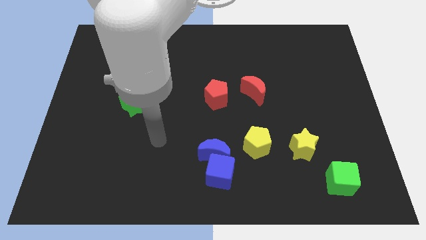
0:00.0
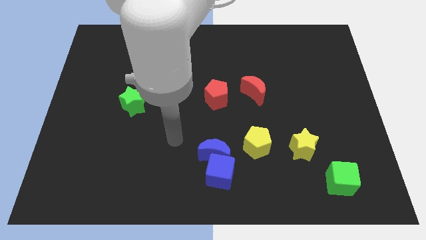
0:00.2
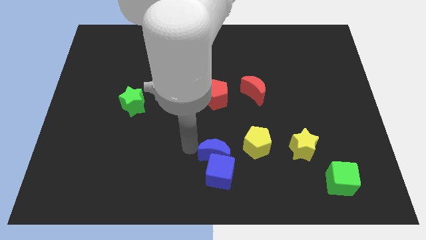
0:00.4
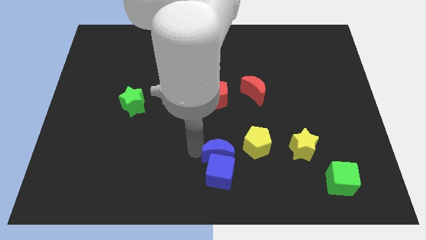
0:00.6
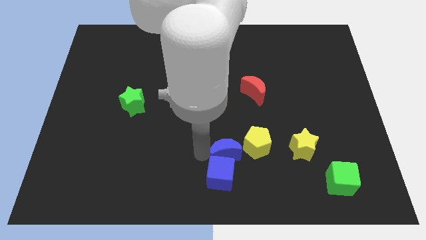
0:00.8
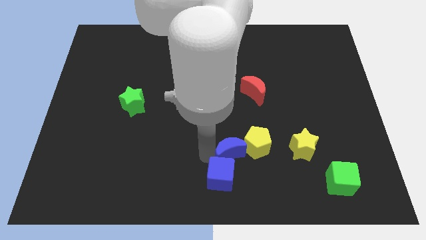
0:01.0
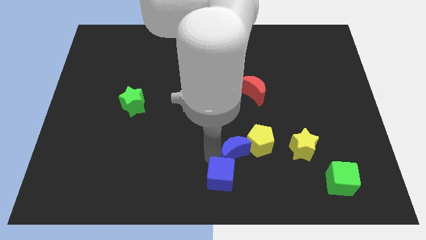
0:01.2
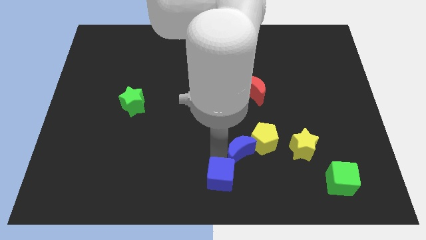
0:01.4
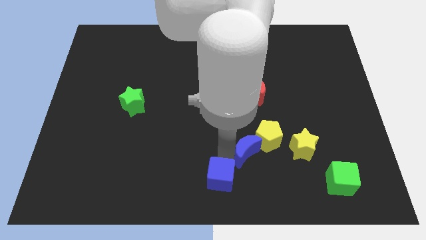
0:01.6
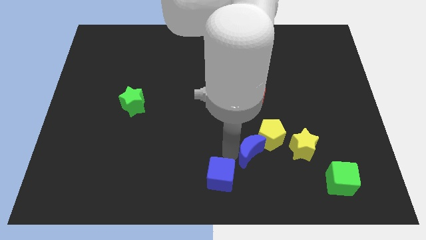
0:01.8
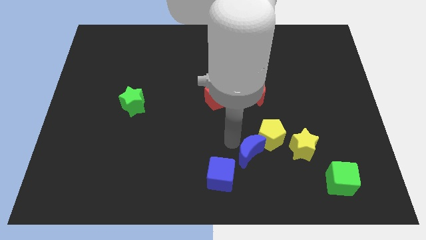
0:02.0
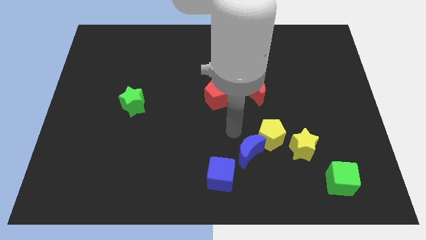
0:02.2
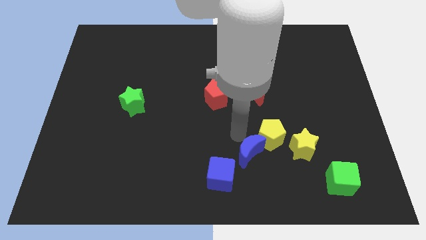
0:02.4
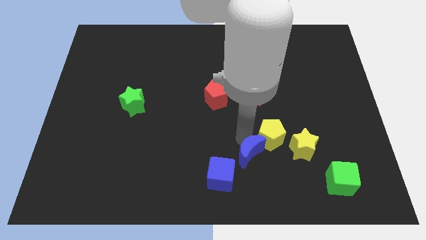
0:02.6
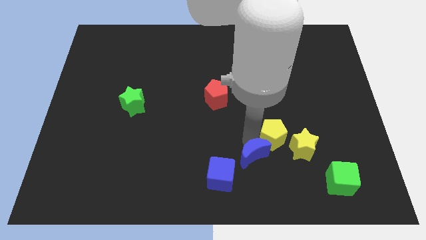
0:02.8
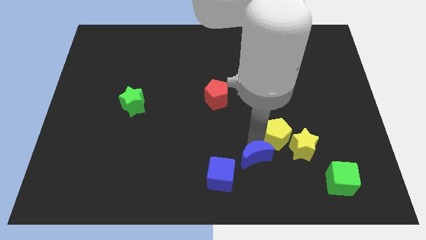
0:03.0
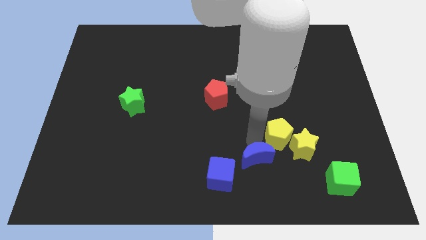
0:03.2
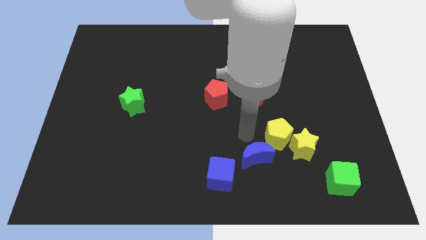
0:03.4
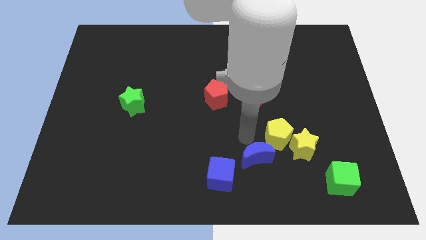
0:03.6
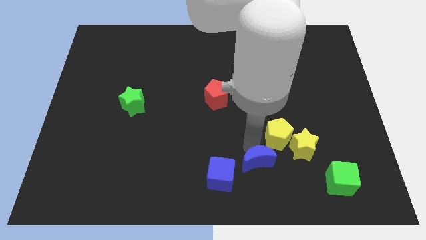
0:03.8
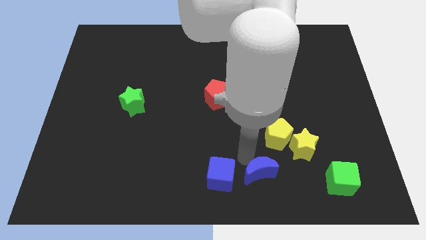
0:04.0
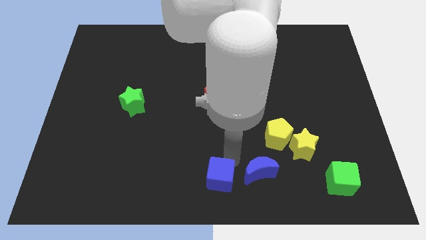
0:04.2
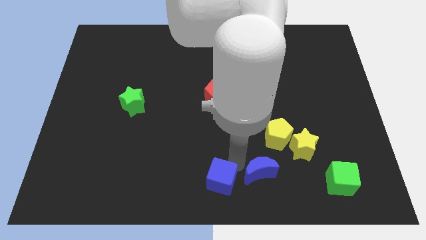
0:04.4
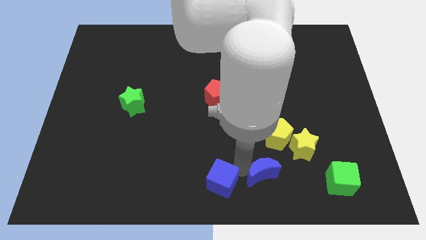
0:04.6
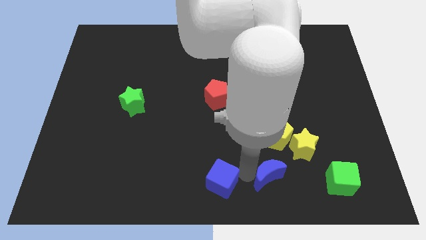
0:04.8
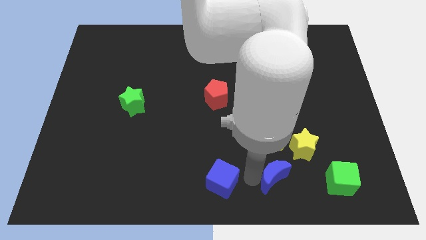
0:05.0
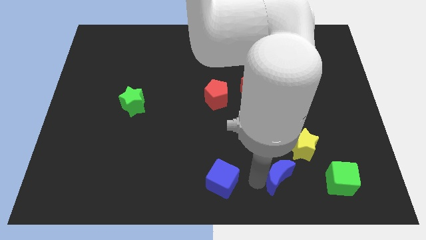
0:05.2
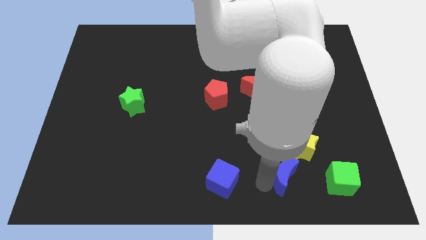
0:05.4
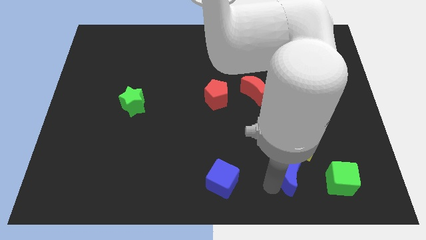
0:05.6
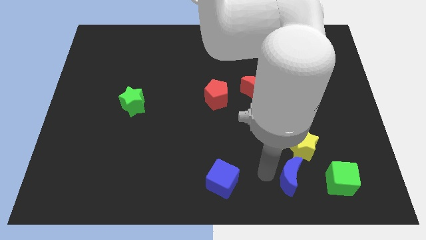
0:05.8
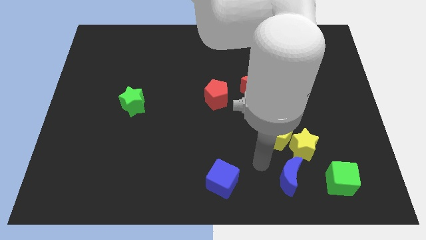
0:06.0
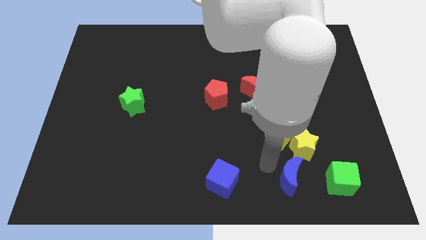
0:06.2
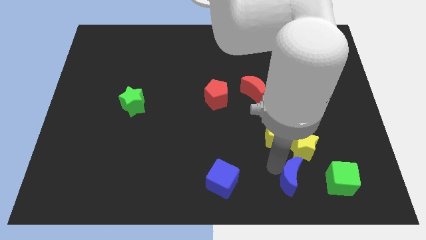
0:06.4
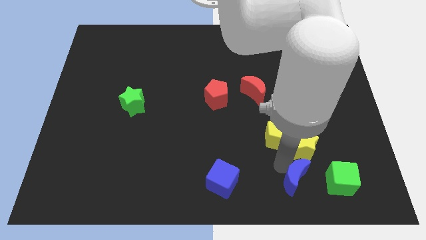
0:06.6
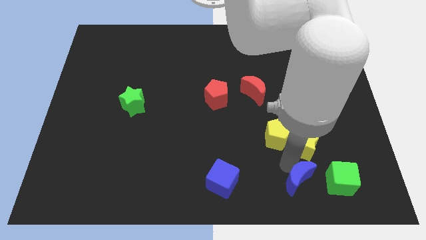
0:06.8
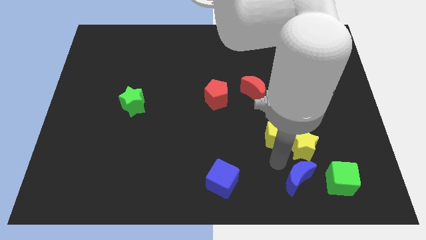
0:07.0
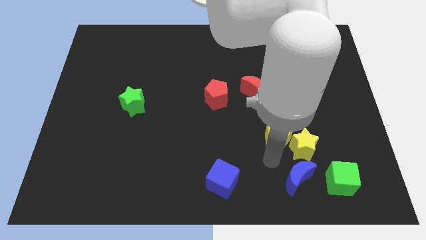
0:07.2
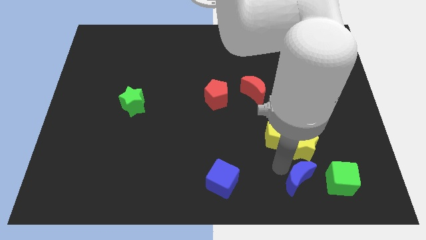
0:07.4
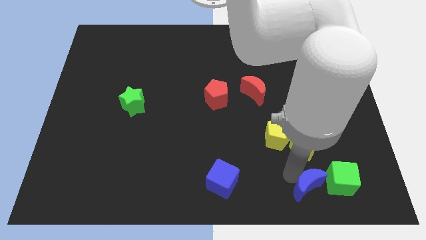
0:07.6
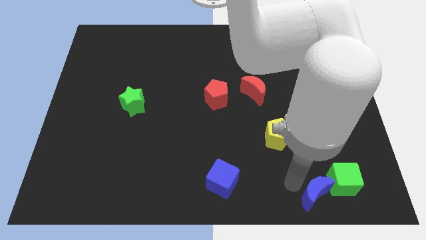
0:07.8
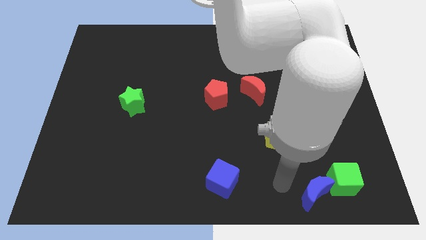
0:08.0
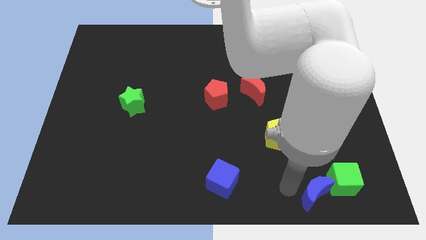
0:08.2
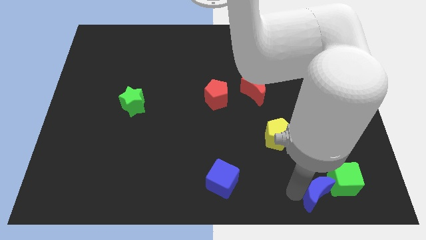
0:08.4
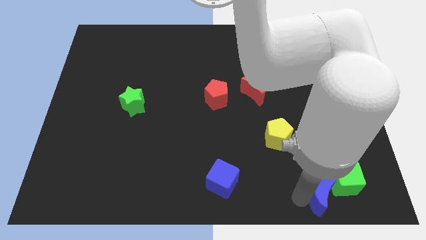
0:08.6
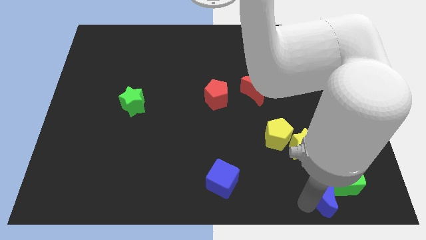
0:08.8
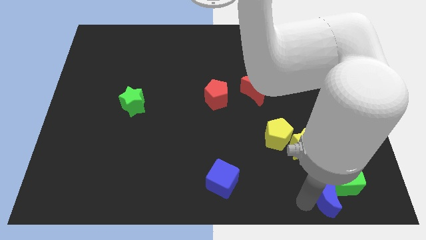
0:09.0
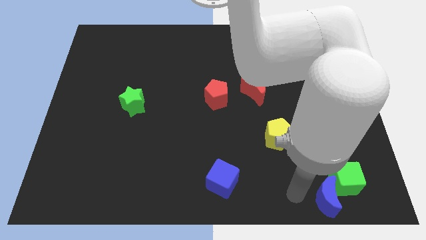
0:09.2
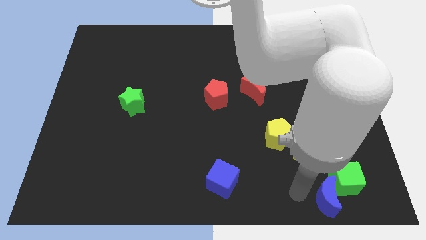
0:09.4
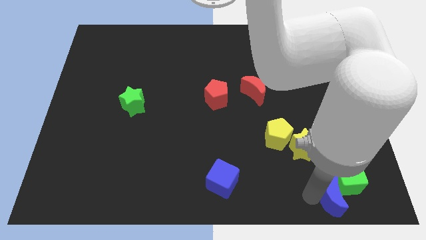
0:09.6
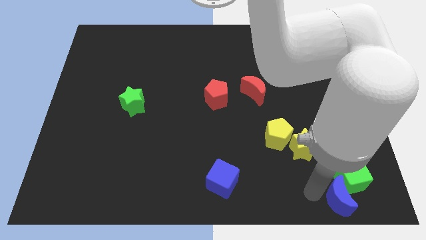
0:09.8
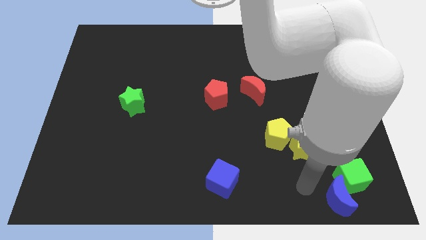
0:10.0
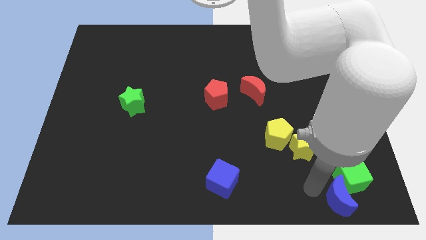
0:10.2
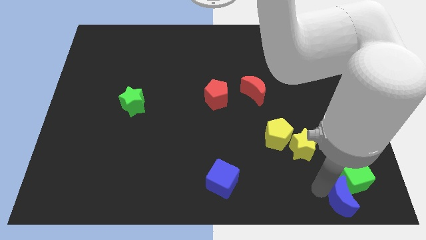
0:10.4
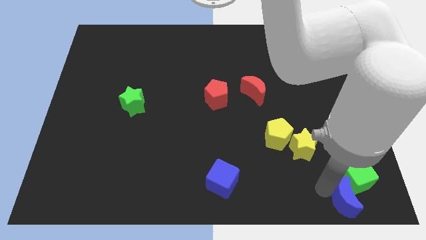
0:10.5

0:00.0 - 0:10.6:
push the blue moon to the bottom right corner

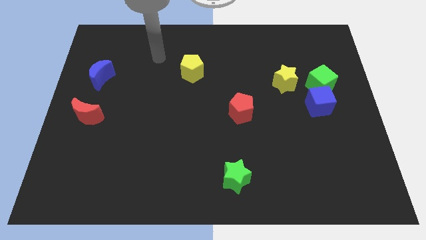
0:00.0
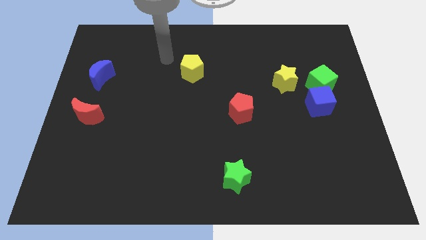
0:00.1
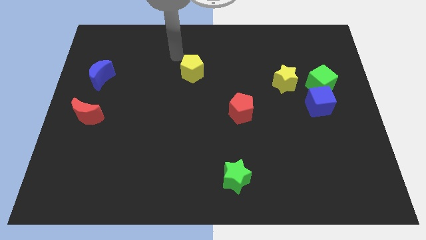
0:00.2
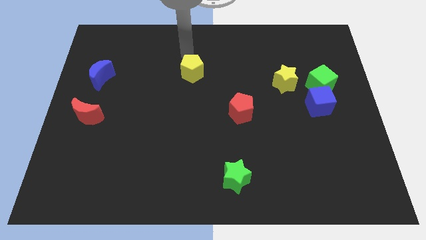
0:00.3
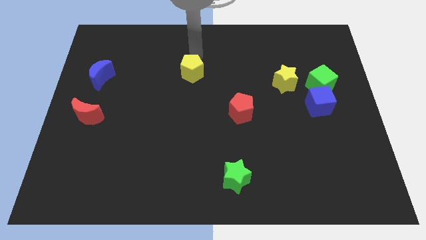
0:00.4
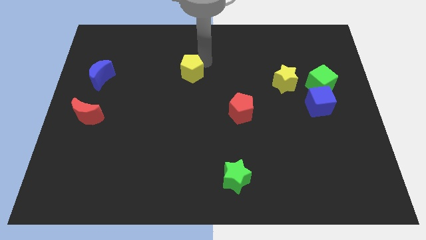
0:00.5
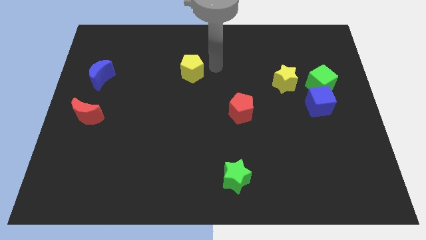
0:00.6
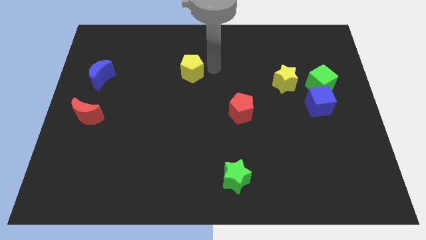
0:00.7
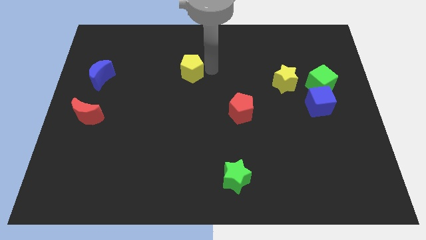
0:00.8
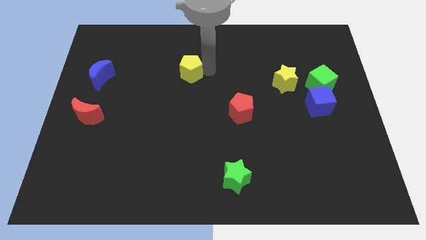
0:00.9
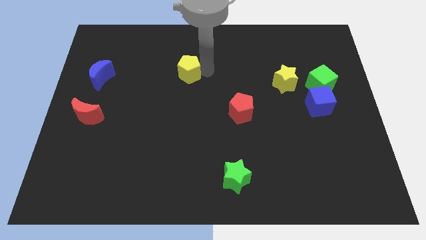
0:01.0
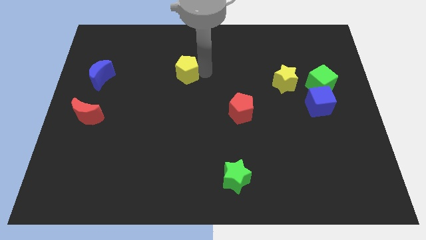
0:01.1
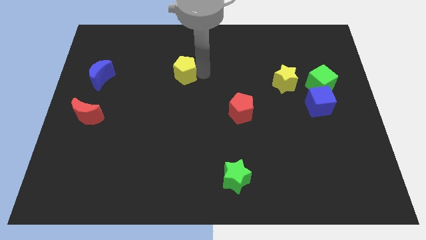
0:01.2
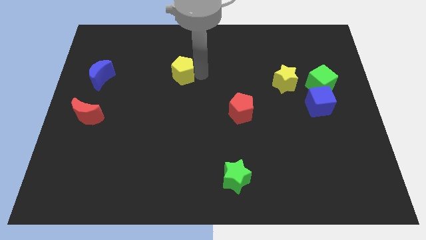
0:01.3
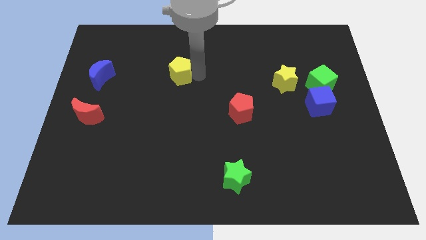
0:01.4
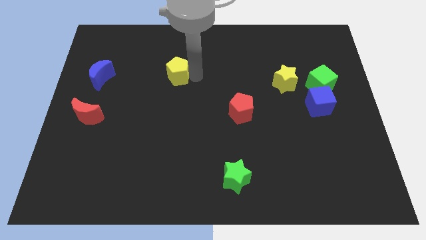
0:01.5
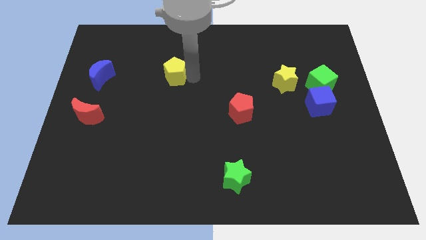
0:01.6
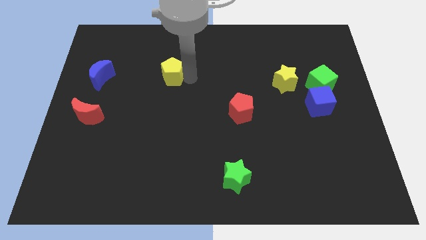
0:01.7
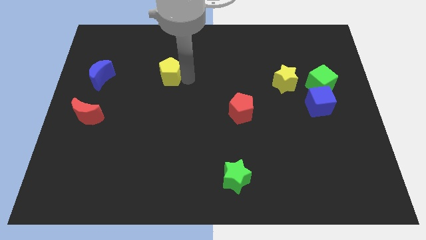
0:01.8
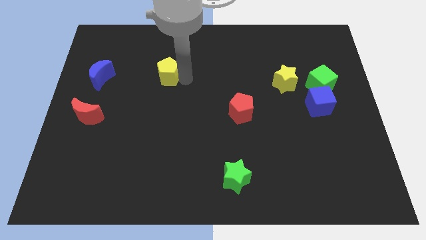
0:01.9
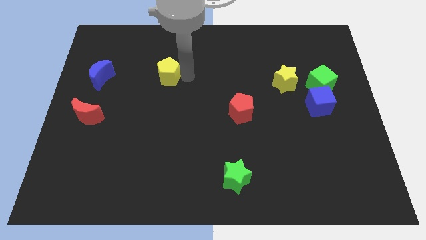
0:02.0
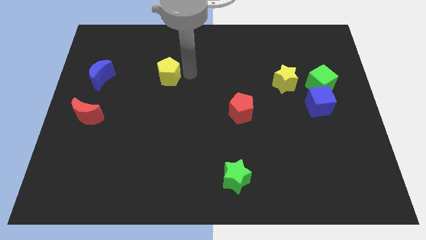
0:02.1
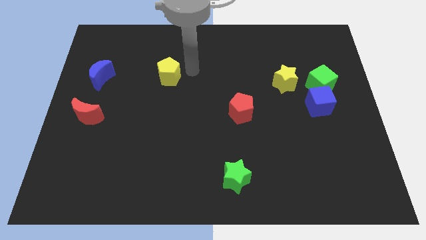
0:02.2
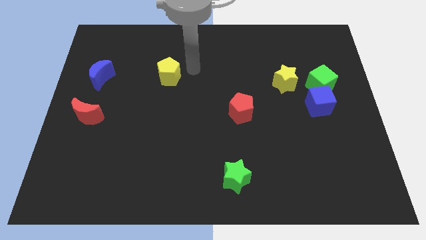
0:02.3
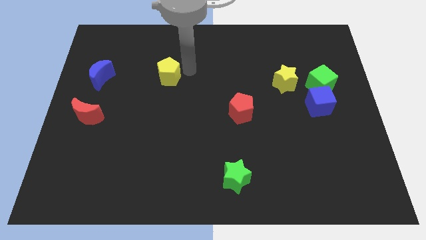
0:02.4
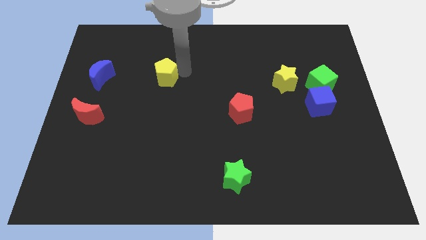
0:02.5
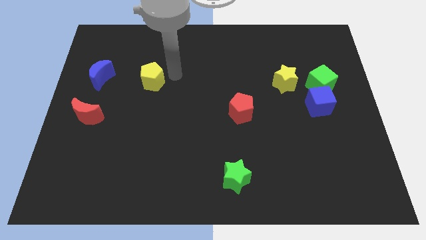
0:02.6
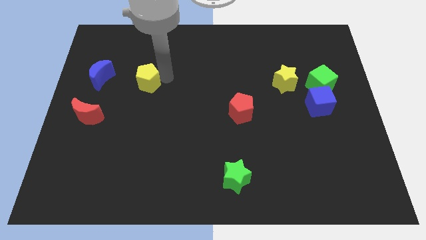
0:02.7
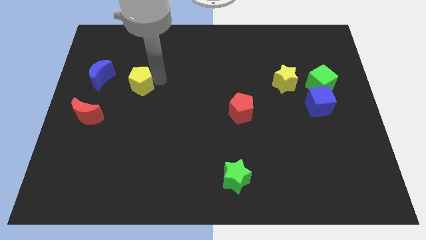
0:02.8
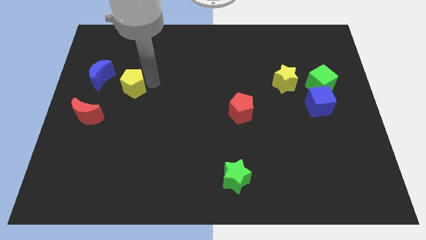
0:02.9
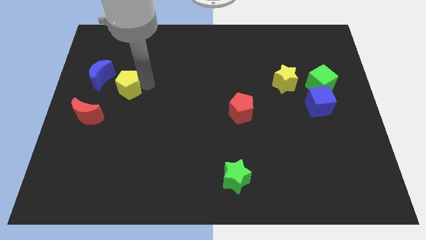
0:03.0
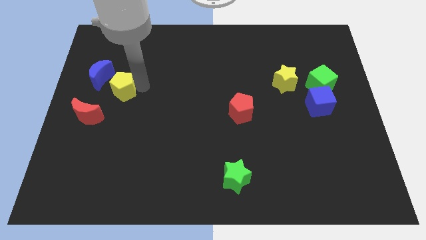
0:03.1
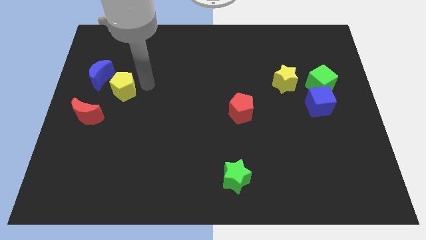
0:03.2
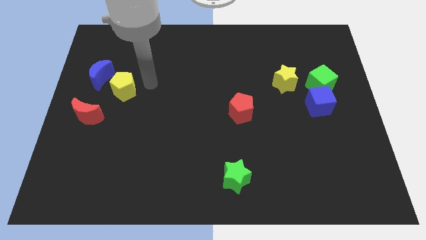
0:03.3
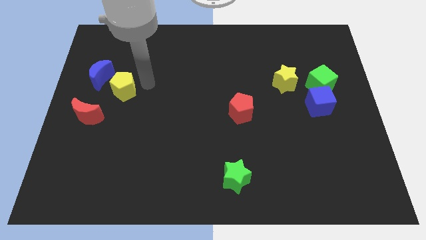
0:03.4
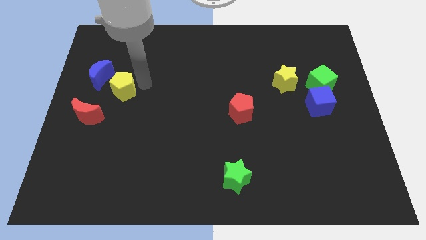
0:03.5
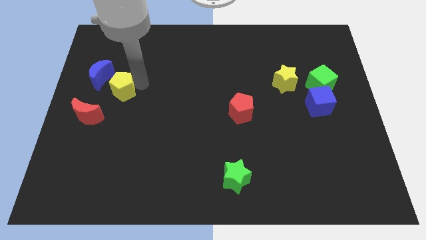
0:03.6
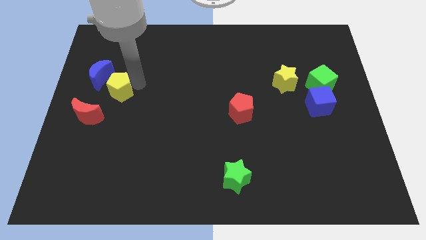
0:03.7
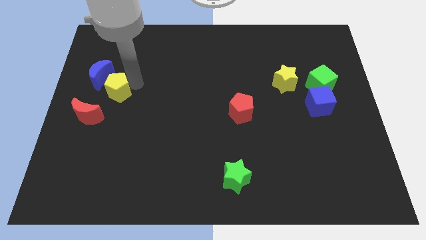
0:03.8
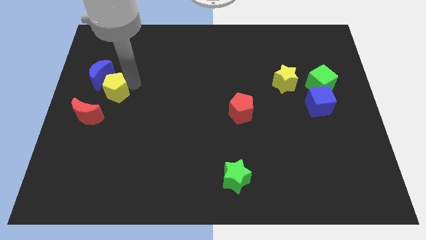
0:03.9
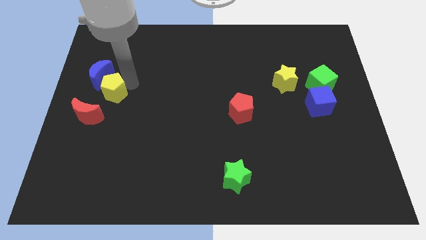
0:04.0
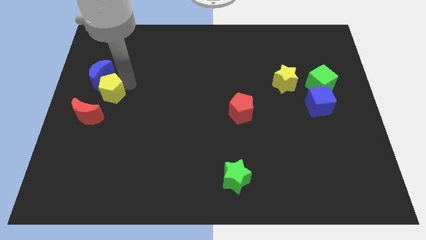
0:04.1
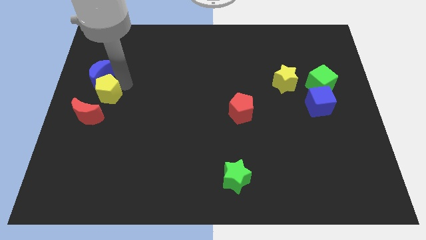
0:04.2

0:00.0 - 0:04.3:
put the yellow pentagon to the left side of the board
